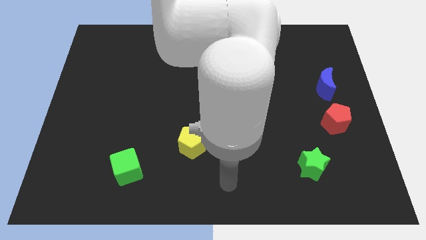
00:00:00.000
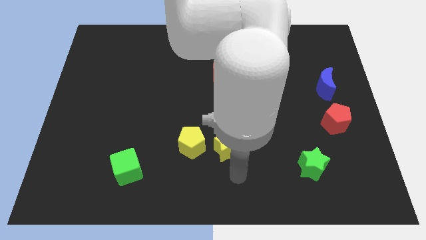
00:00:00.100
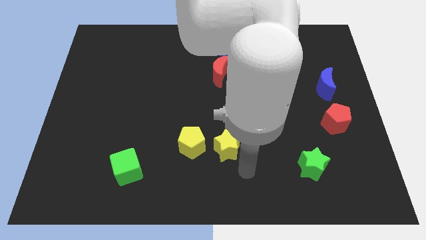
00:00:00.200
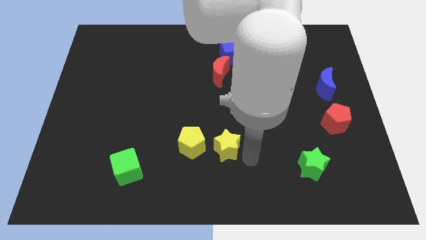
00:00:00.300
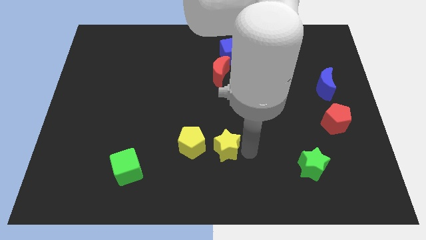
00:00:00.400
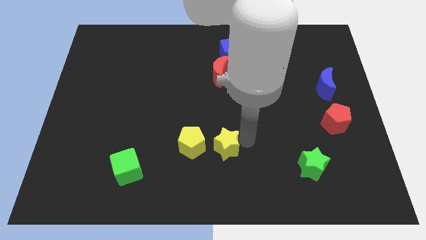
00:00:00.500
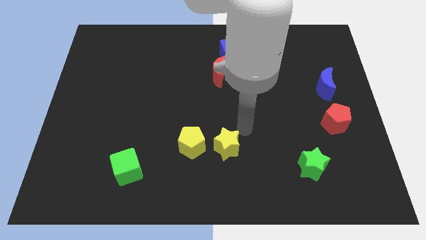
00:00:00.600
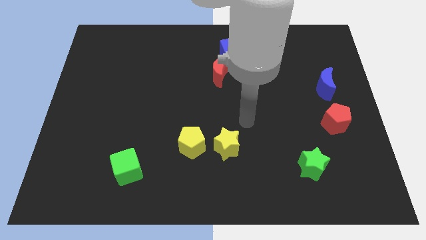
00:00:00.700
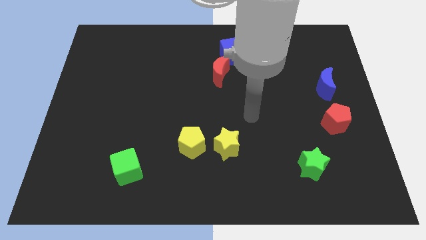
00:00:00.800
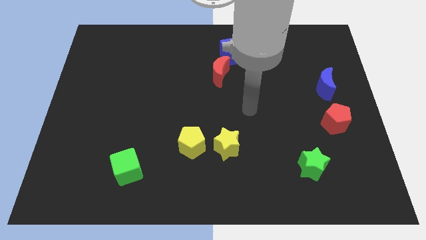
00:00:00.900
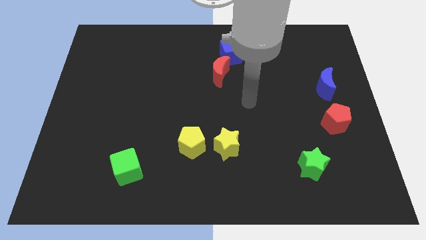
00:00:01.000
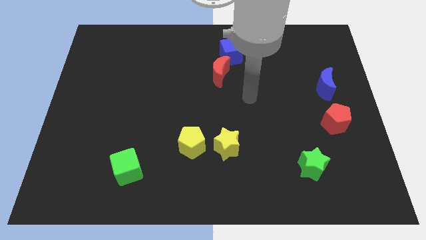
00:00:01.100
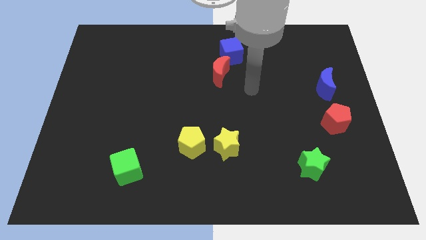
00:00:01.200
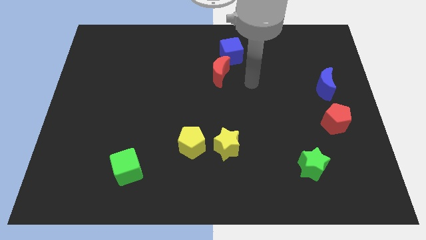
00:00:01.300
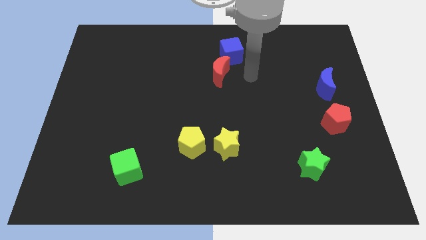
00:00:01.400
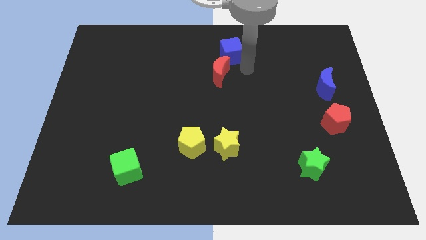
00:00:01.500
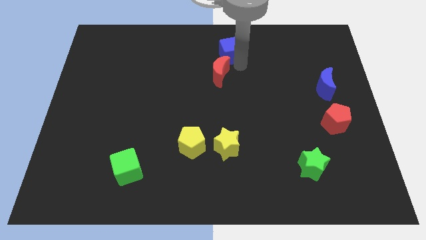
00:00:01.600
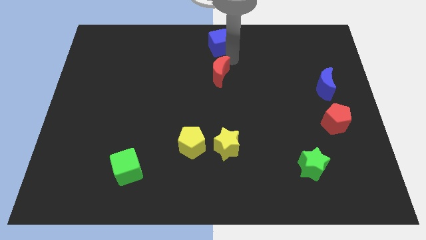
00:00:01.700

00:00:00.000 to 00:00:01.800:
move the red moon away from the blue cube

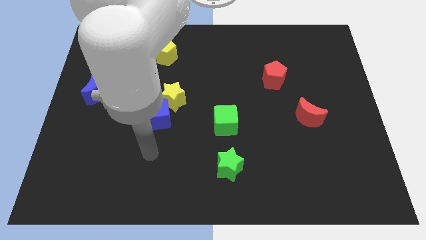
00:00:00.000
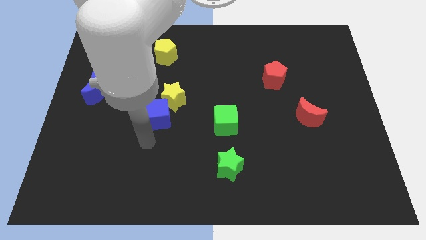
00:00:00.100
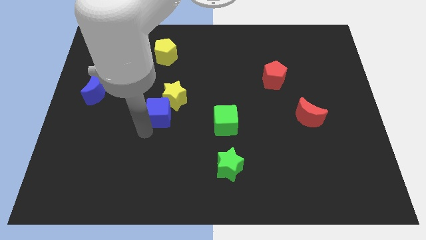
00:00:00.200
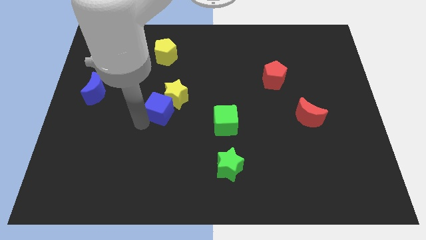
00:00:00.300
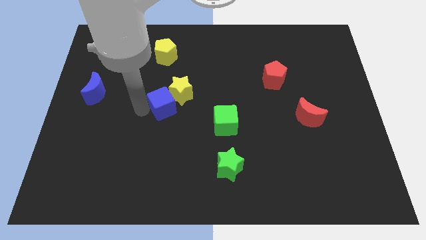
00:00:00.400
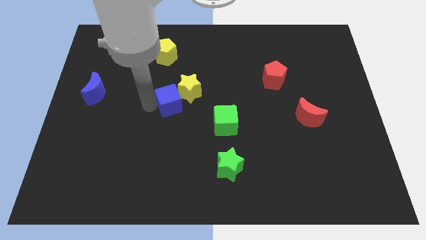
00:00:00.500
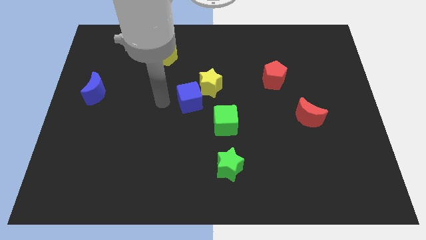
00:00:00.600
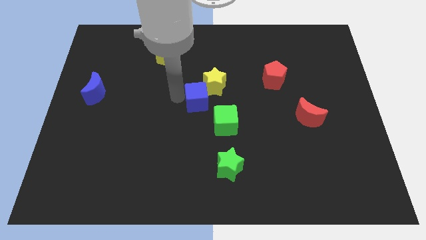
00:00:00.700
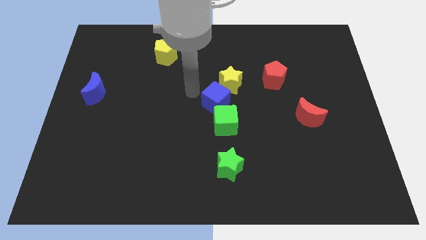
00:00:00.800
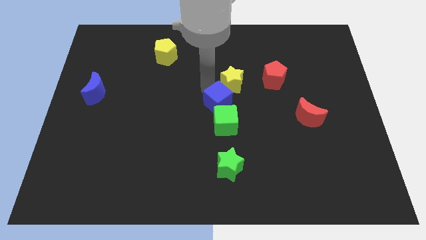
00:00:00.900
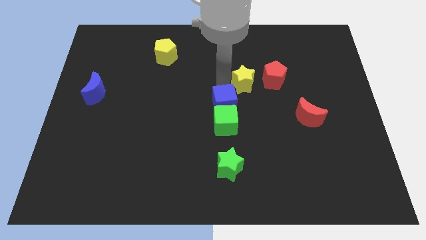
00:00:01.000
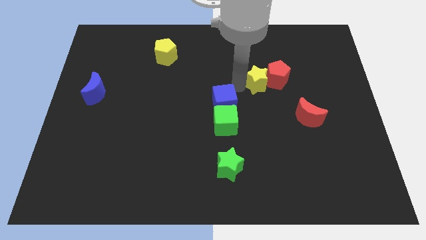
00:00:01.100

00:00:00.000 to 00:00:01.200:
separate the blue cube from the yellow star

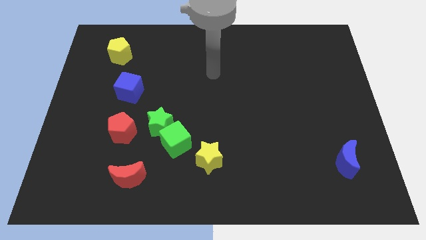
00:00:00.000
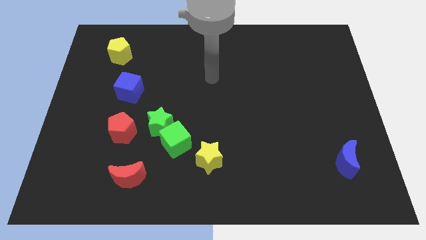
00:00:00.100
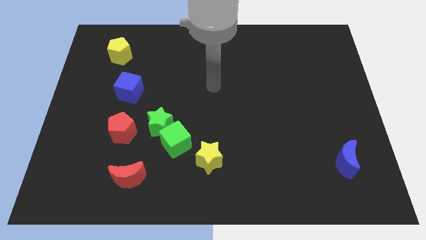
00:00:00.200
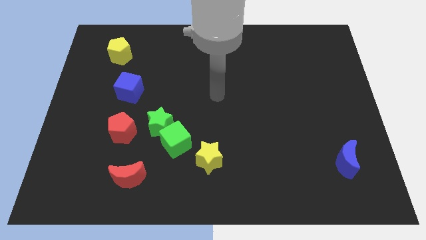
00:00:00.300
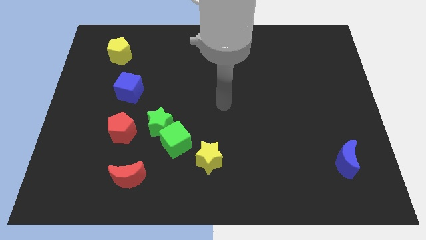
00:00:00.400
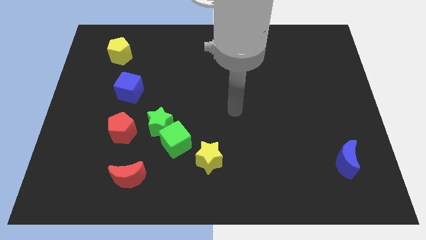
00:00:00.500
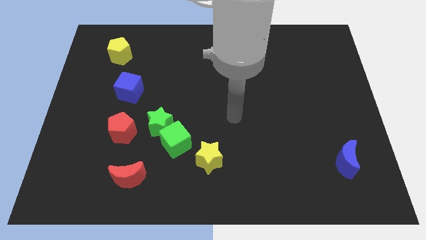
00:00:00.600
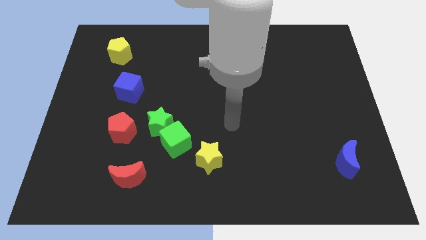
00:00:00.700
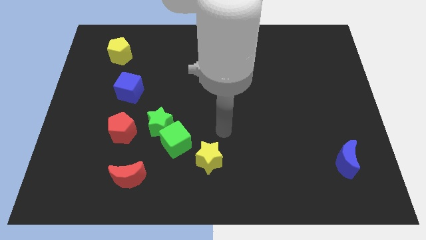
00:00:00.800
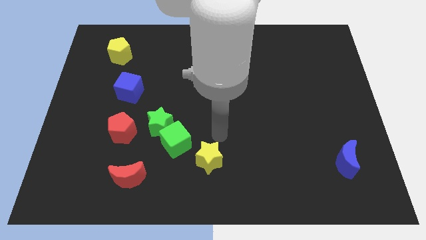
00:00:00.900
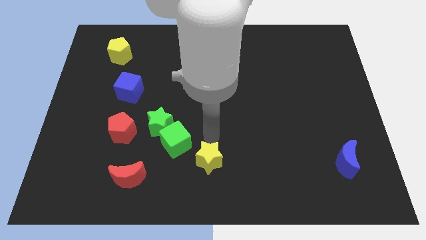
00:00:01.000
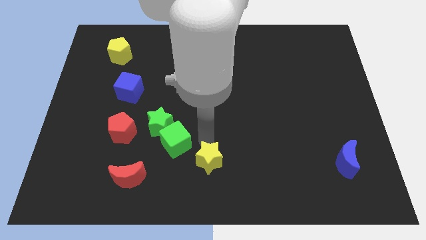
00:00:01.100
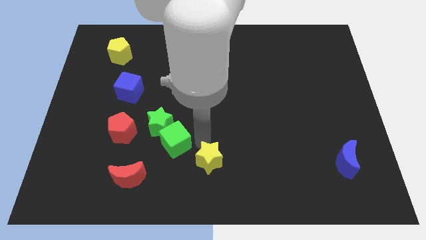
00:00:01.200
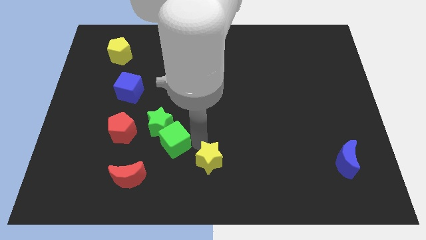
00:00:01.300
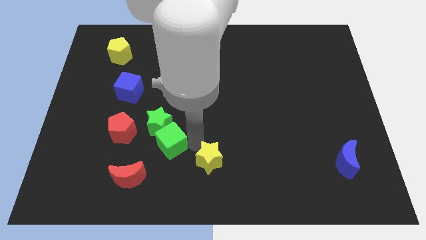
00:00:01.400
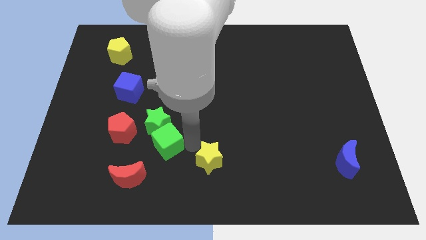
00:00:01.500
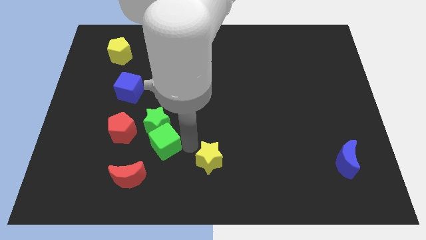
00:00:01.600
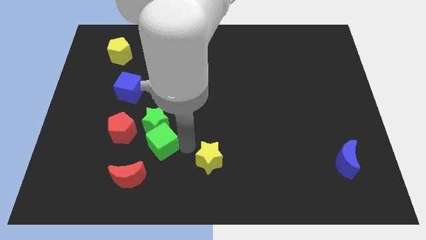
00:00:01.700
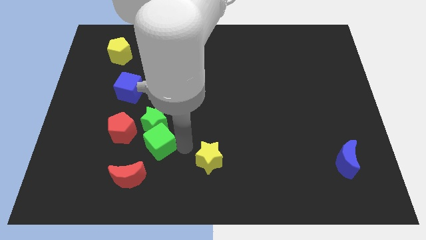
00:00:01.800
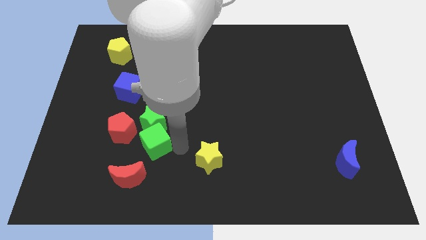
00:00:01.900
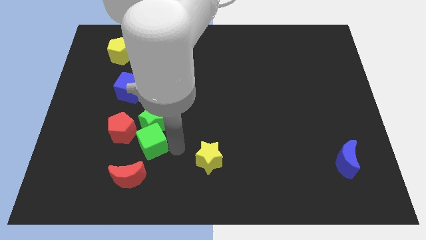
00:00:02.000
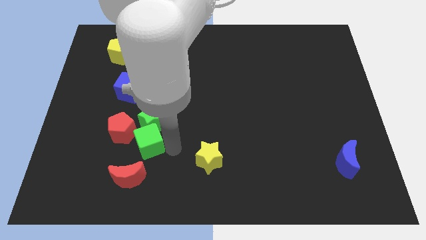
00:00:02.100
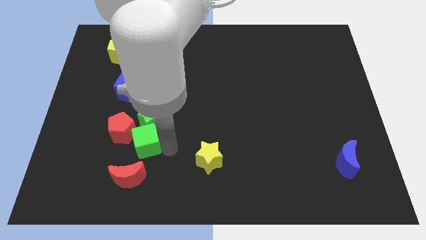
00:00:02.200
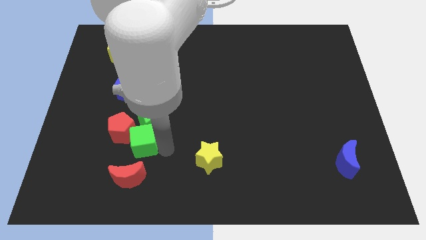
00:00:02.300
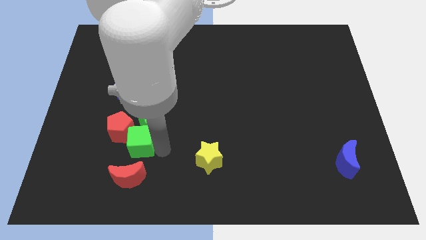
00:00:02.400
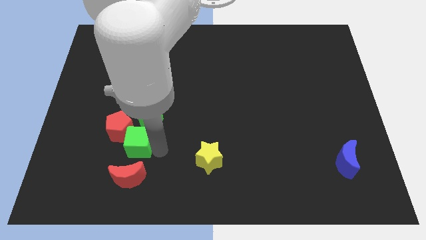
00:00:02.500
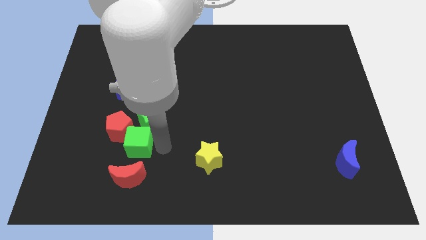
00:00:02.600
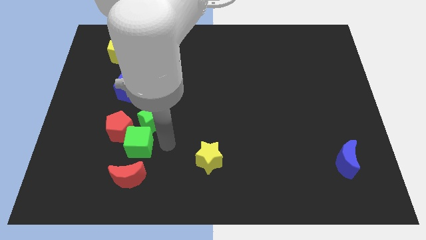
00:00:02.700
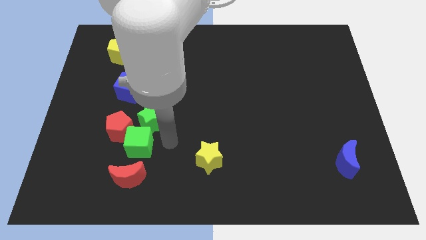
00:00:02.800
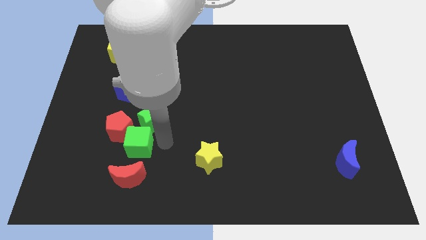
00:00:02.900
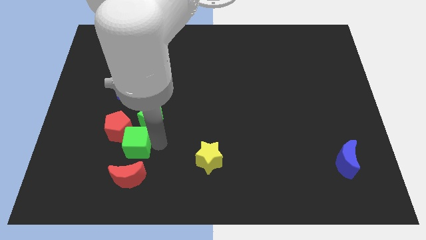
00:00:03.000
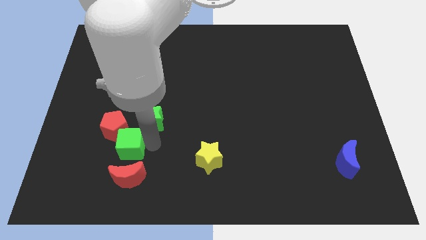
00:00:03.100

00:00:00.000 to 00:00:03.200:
move the green cube away from the green star and yellow star

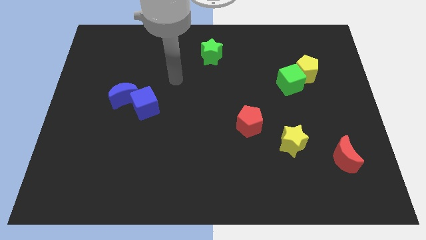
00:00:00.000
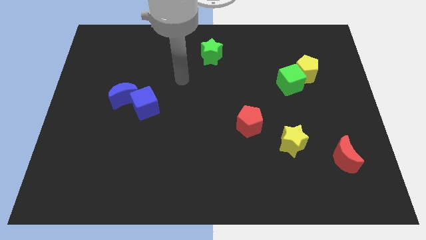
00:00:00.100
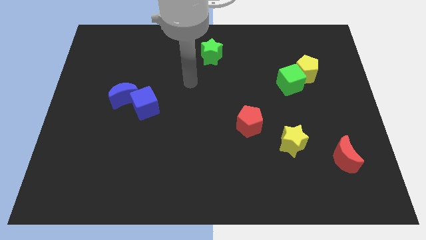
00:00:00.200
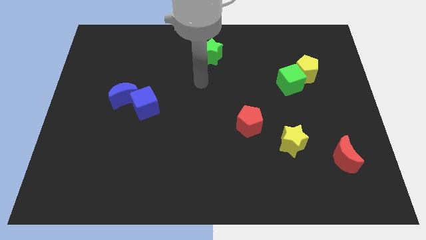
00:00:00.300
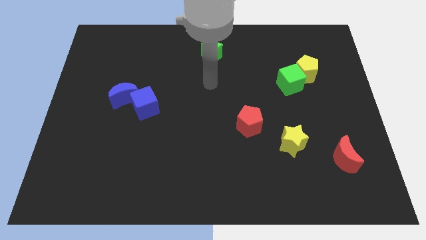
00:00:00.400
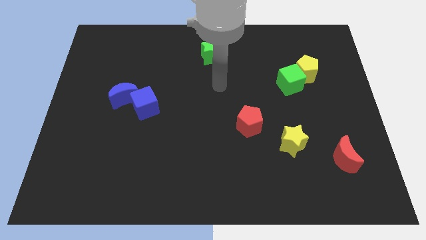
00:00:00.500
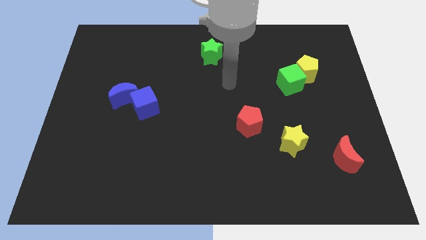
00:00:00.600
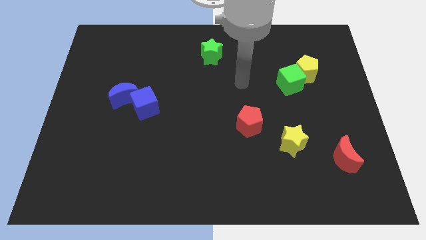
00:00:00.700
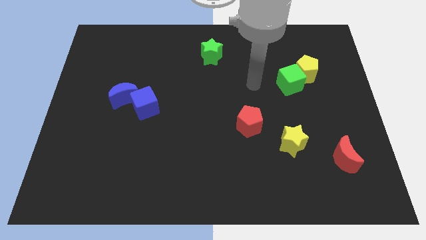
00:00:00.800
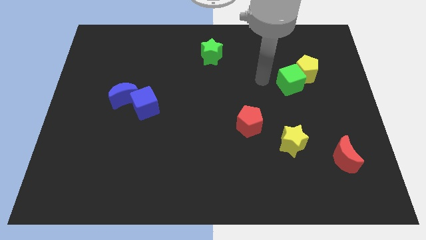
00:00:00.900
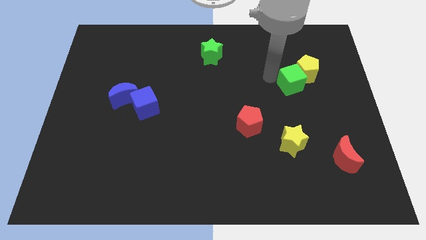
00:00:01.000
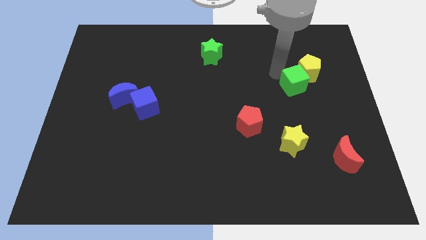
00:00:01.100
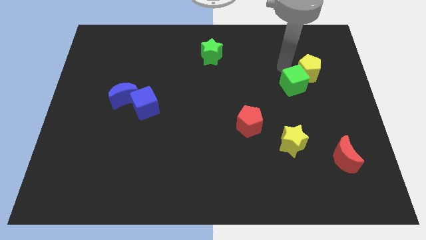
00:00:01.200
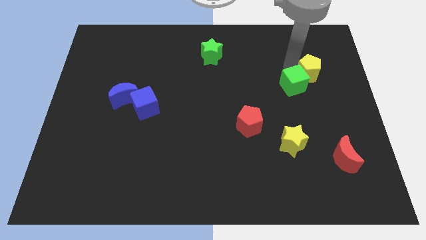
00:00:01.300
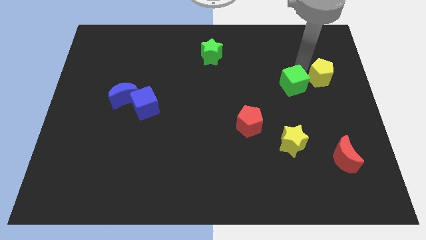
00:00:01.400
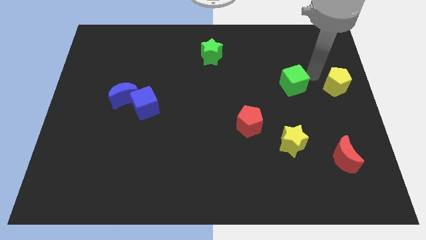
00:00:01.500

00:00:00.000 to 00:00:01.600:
pull the green cube apart from the yellow pentagon

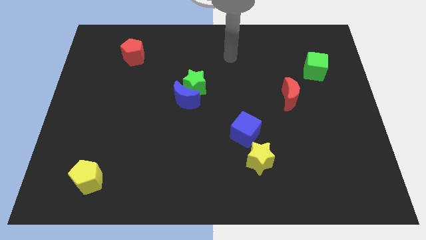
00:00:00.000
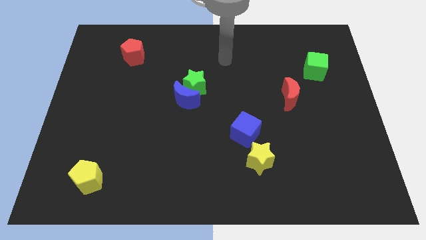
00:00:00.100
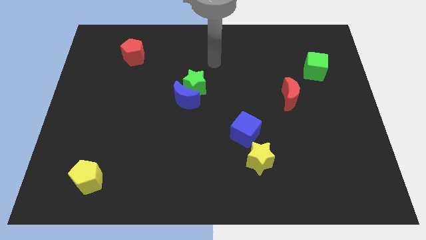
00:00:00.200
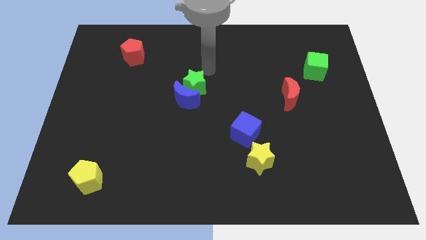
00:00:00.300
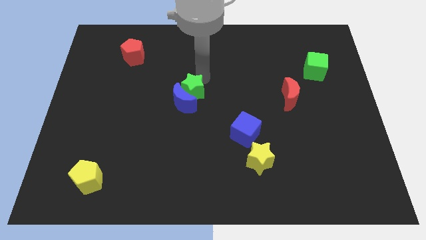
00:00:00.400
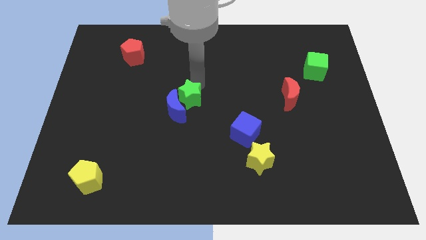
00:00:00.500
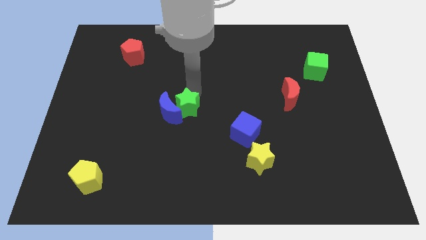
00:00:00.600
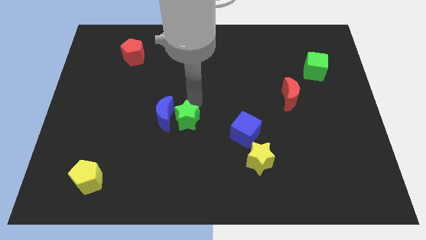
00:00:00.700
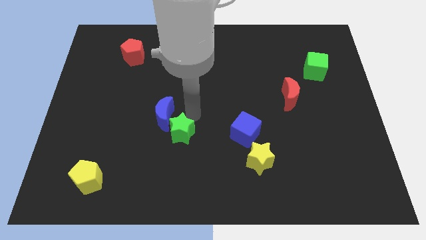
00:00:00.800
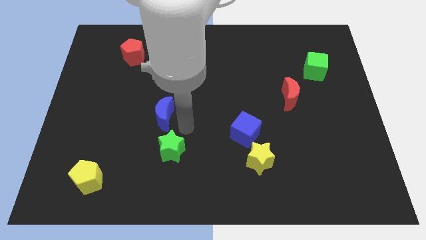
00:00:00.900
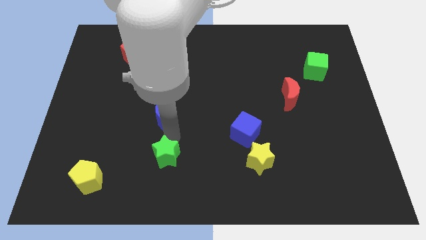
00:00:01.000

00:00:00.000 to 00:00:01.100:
move the blue moon away from the green star

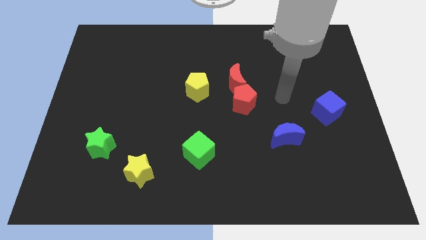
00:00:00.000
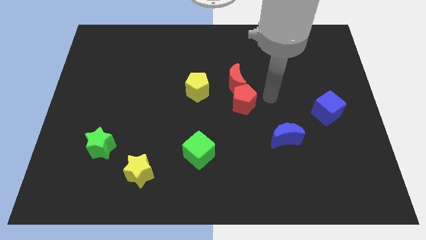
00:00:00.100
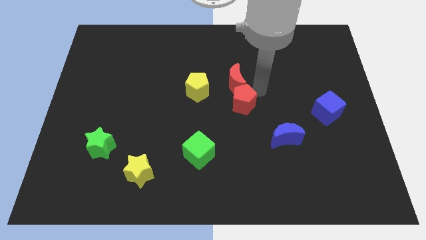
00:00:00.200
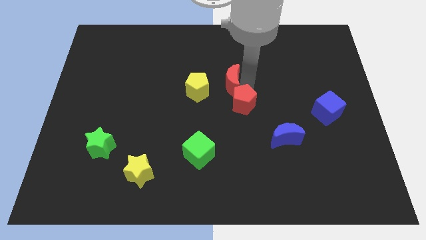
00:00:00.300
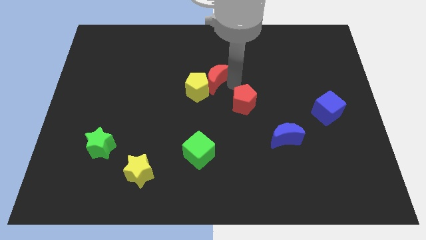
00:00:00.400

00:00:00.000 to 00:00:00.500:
separate the red pentagon from the red moon
